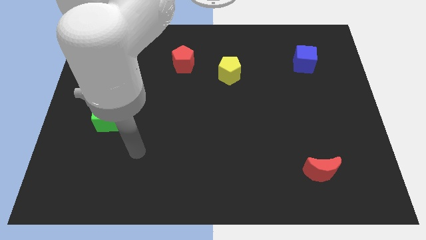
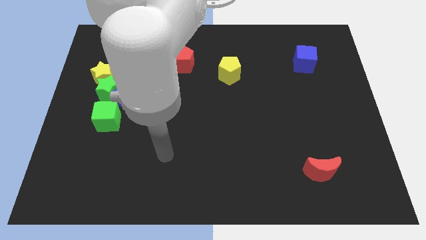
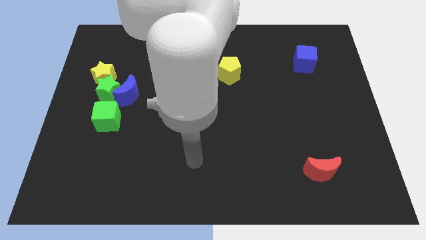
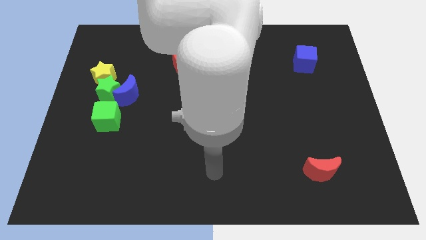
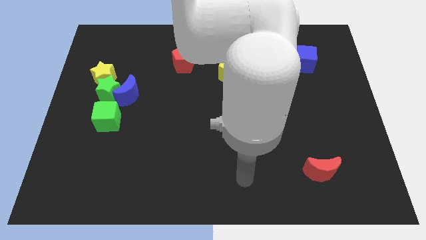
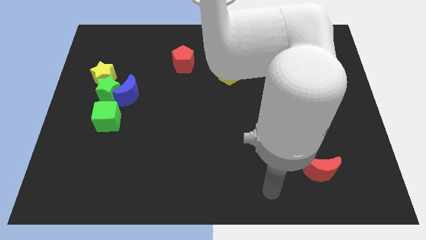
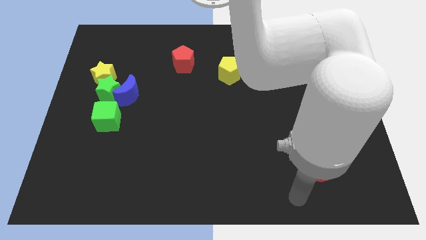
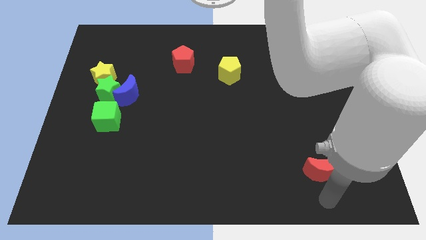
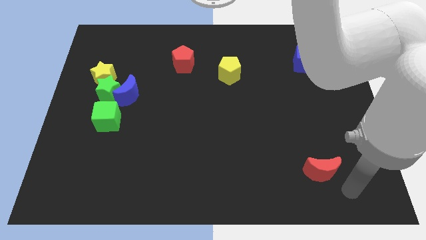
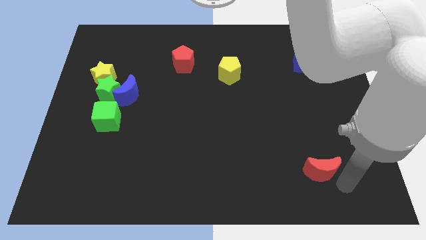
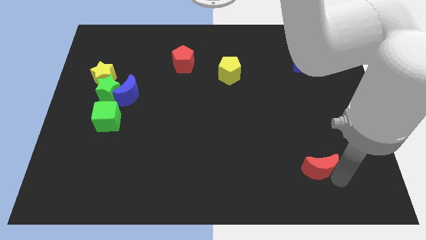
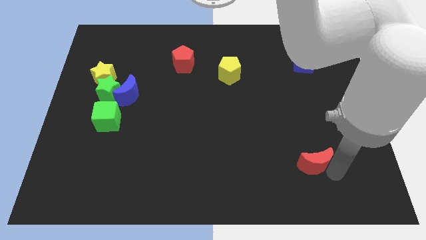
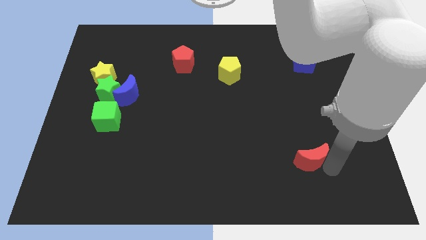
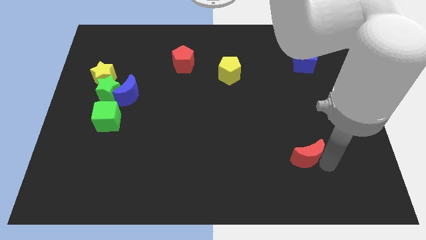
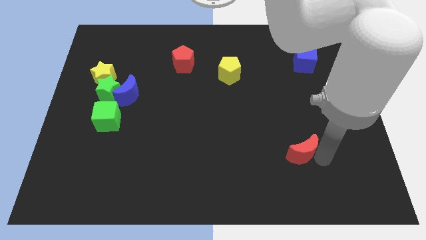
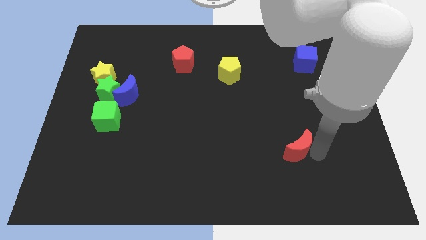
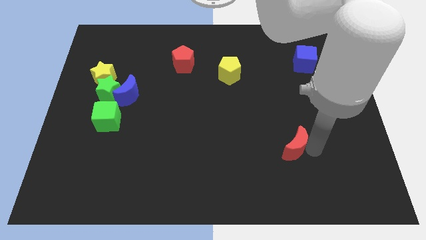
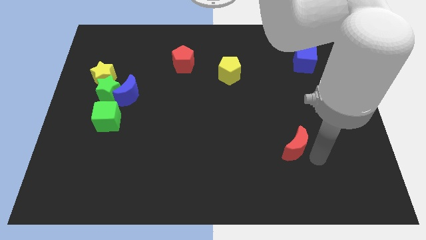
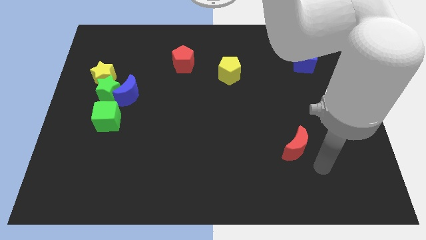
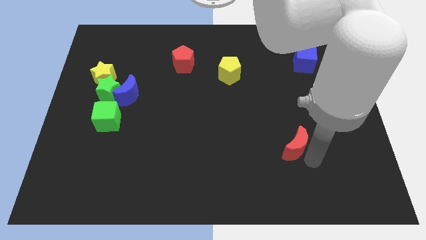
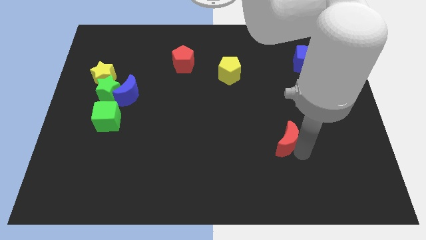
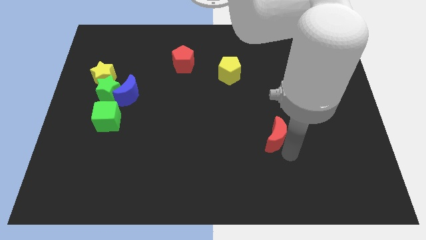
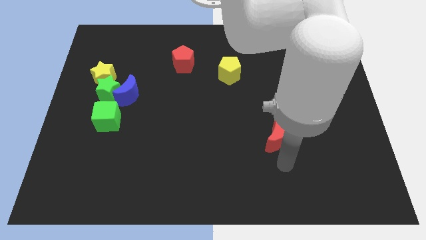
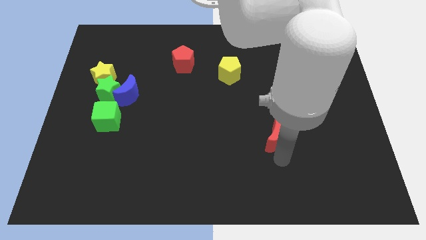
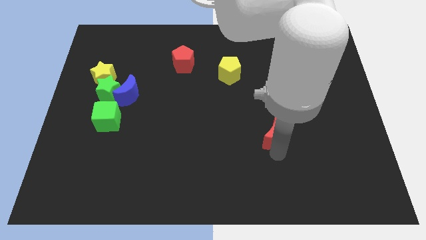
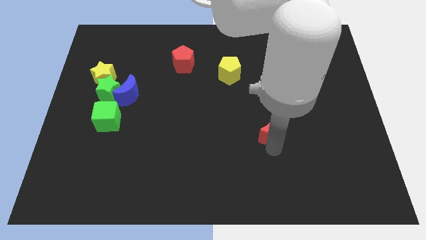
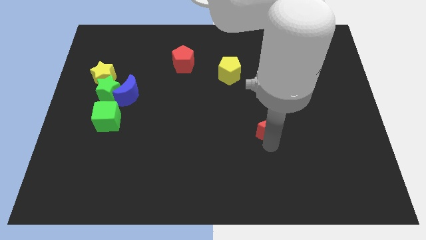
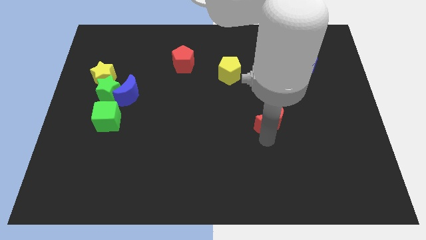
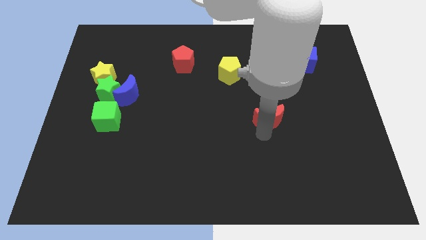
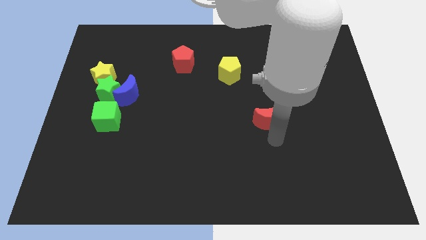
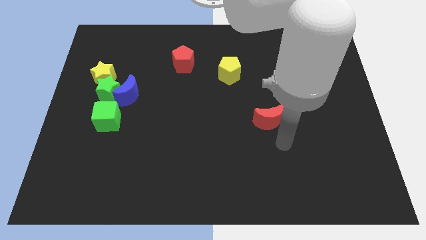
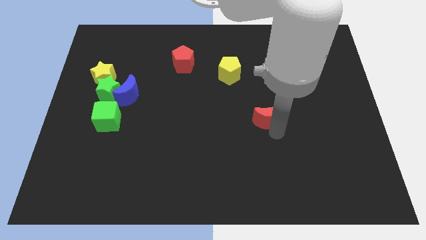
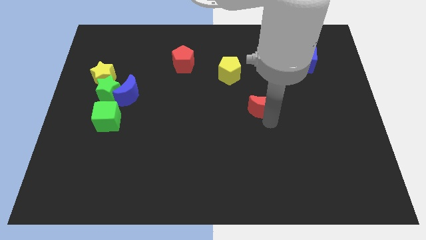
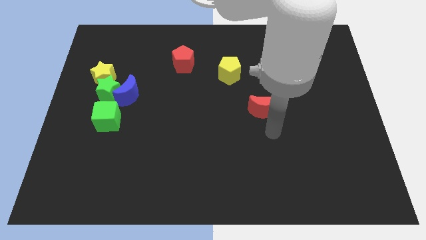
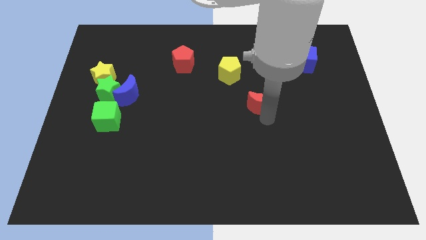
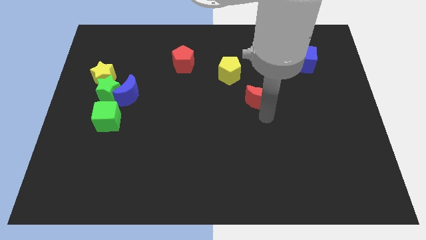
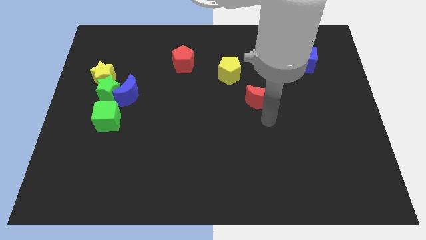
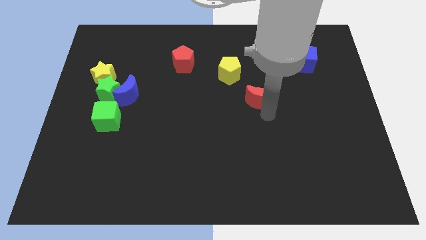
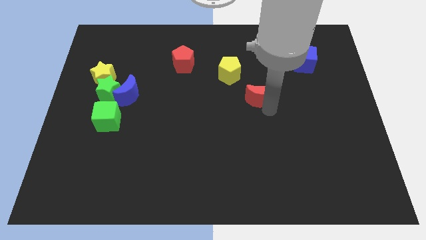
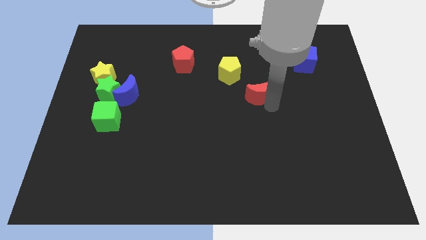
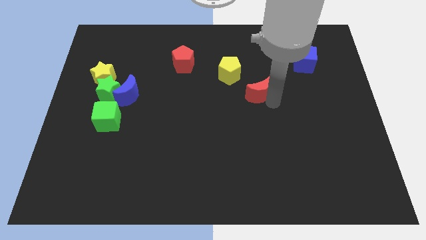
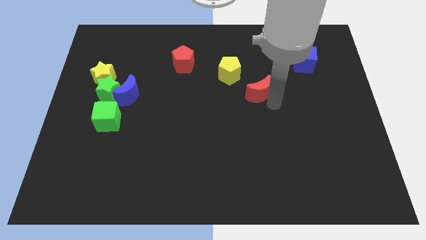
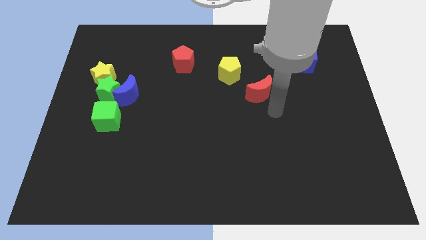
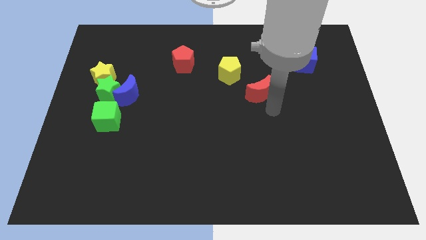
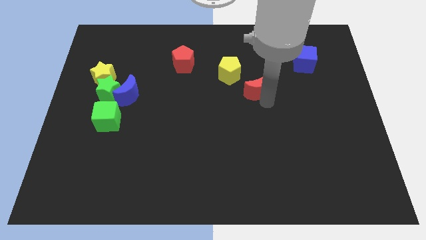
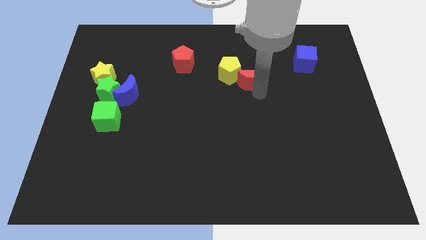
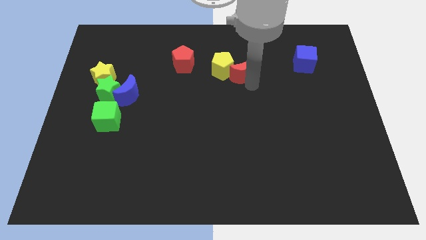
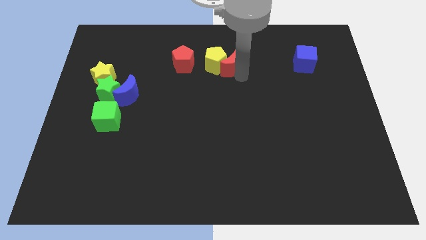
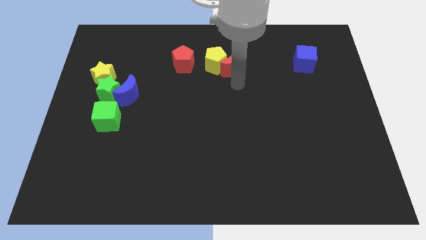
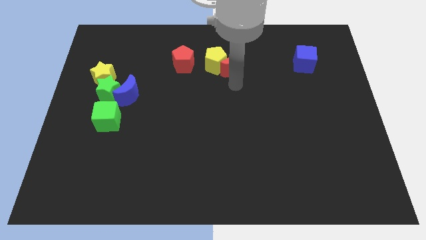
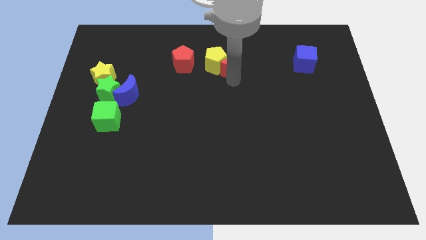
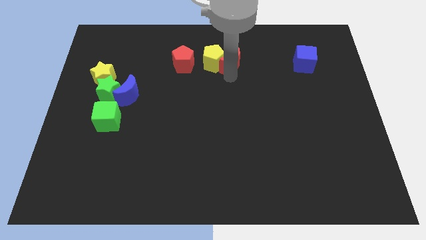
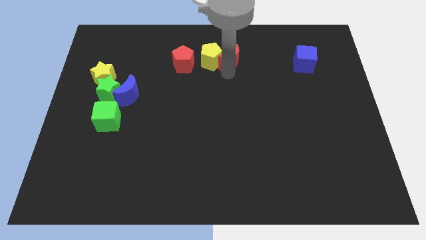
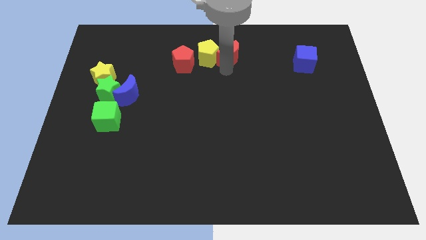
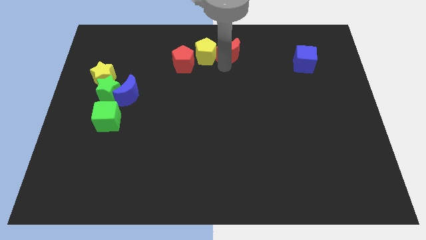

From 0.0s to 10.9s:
slide the red moon to the towards your base
